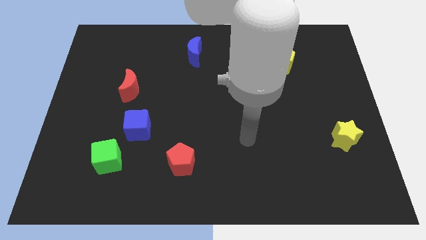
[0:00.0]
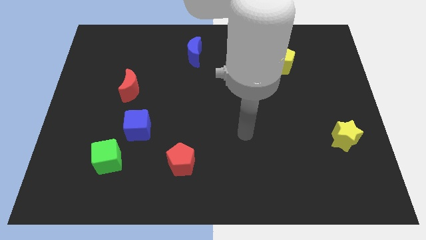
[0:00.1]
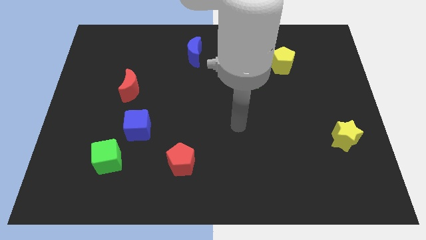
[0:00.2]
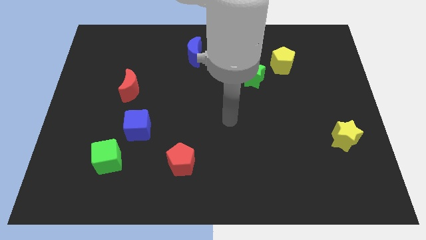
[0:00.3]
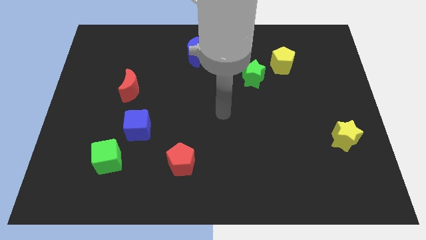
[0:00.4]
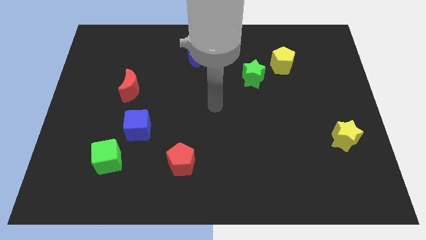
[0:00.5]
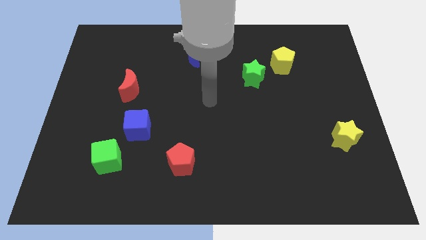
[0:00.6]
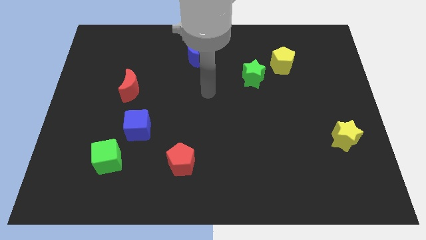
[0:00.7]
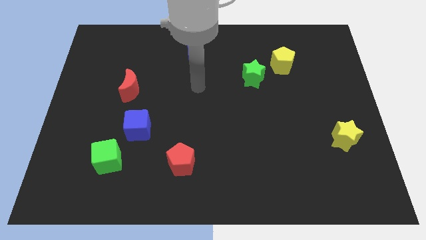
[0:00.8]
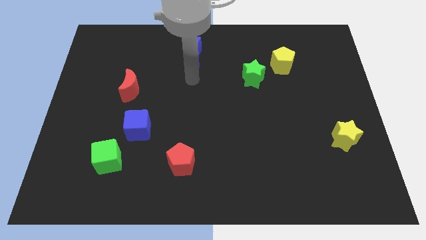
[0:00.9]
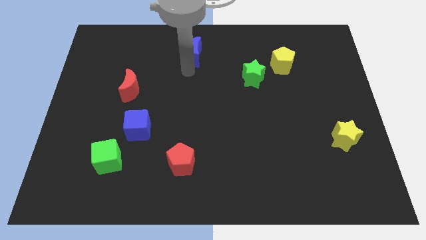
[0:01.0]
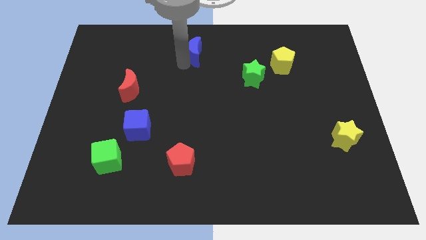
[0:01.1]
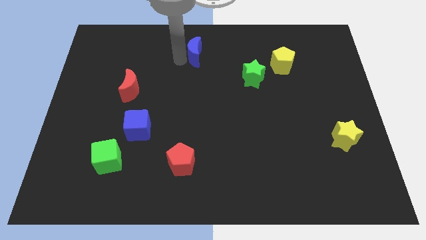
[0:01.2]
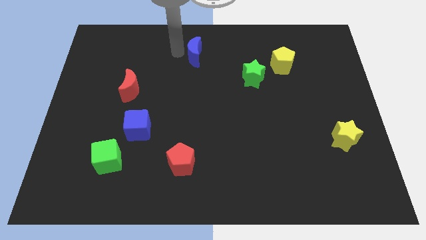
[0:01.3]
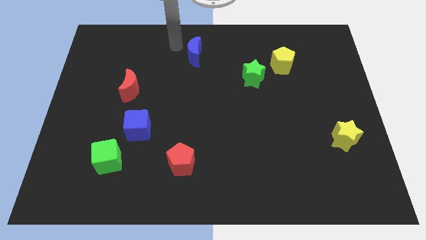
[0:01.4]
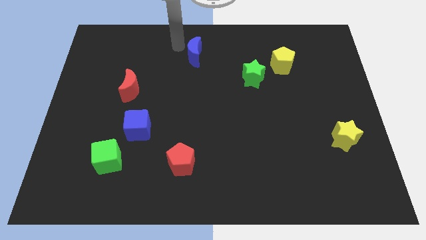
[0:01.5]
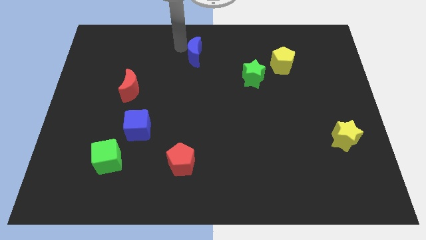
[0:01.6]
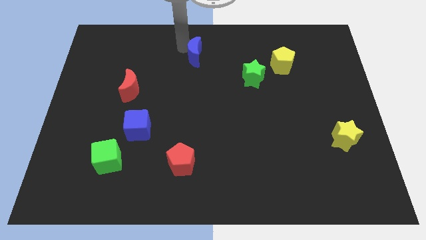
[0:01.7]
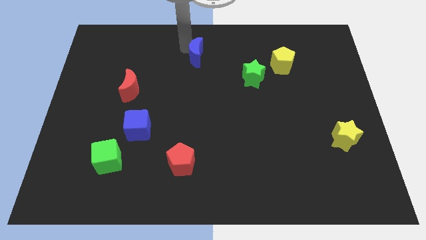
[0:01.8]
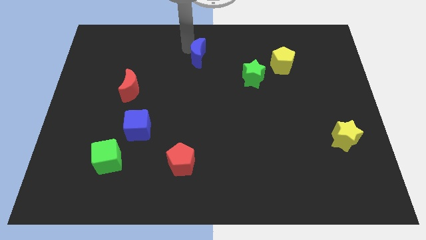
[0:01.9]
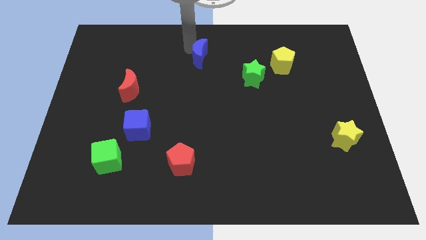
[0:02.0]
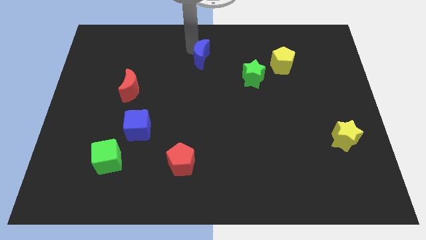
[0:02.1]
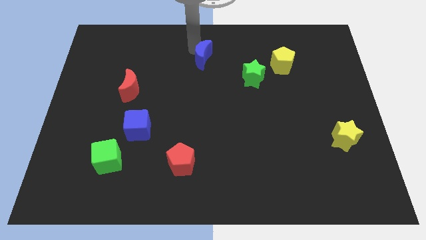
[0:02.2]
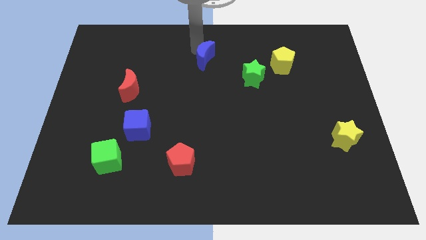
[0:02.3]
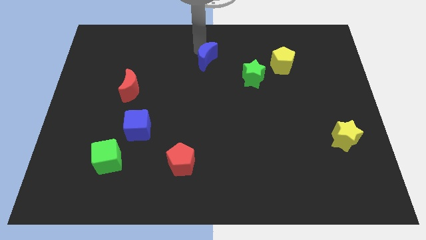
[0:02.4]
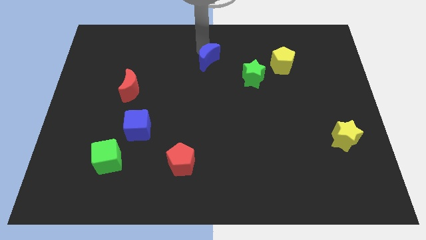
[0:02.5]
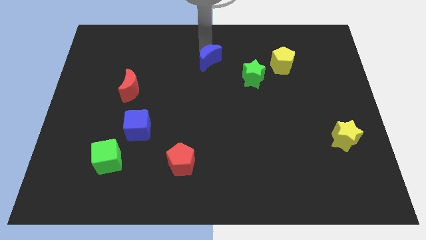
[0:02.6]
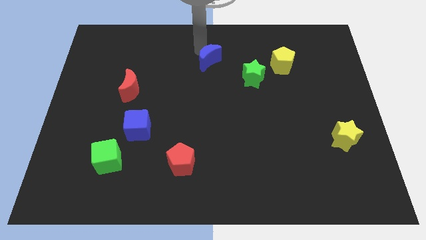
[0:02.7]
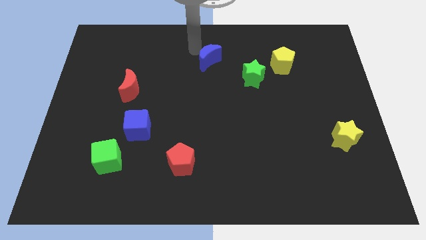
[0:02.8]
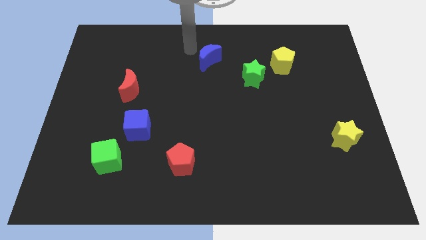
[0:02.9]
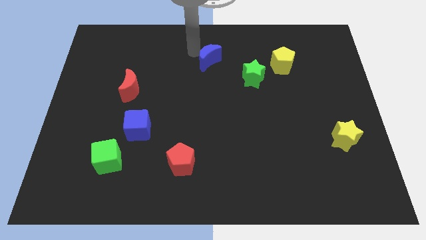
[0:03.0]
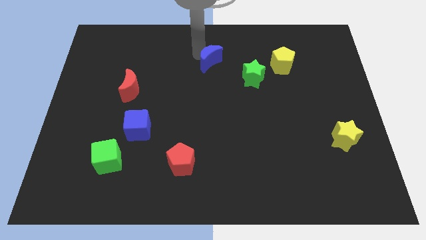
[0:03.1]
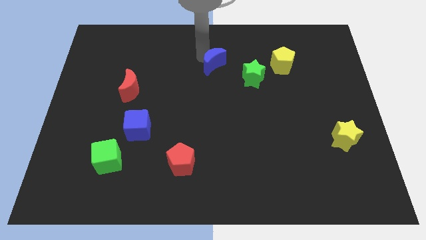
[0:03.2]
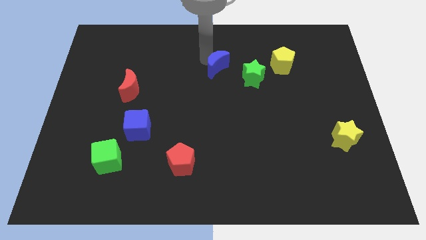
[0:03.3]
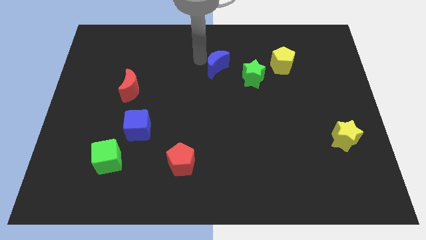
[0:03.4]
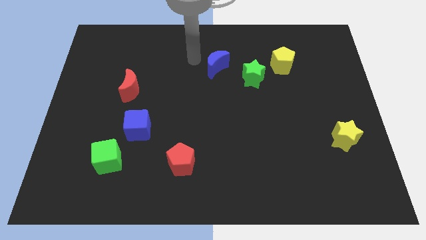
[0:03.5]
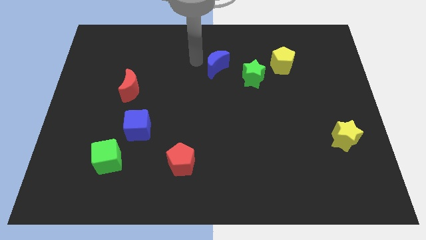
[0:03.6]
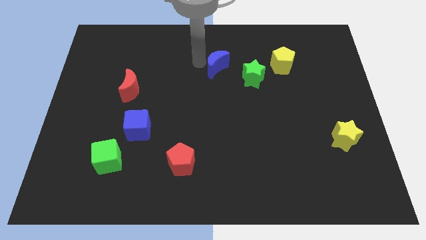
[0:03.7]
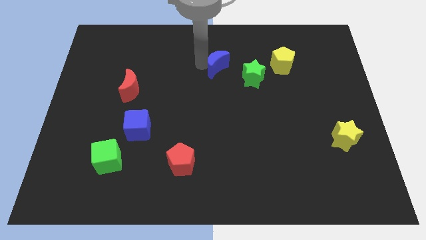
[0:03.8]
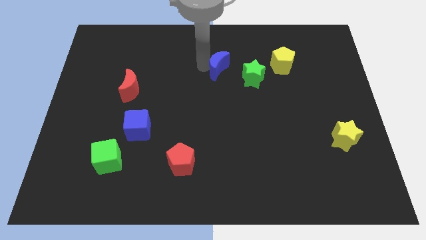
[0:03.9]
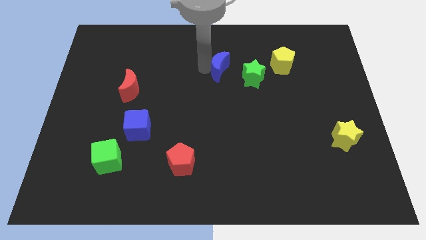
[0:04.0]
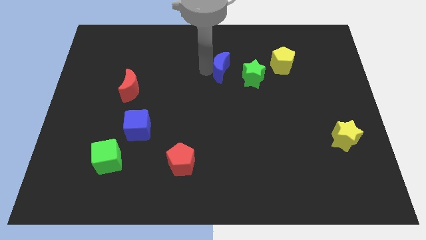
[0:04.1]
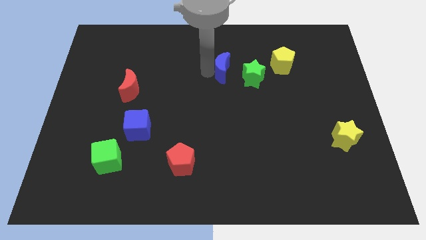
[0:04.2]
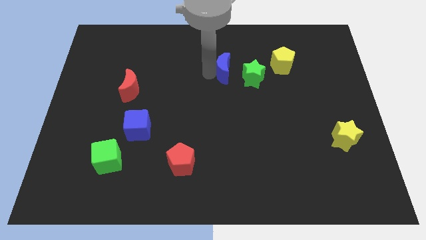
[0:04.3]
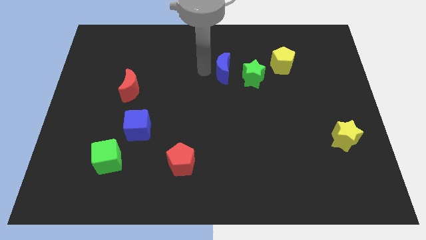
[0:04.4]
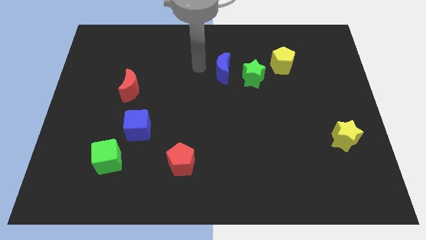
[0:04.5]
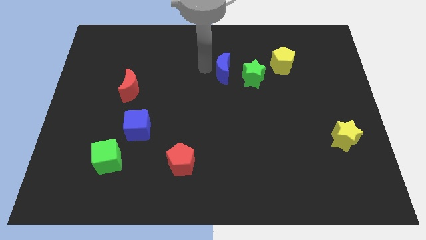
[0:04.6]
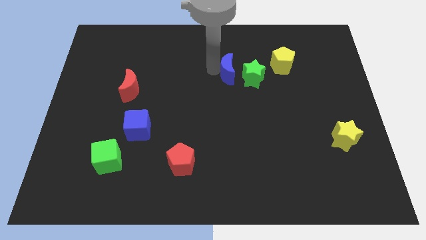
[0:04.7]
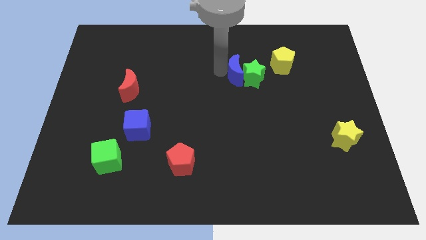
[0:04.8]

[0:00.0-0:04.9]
put the blue moon to the green star

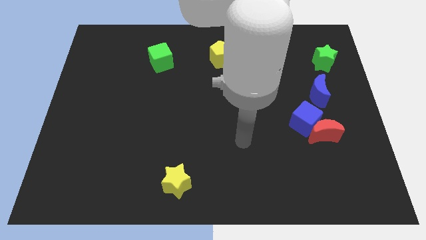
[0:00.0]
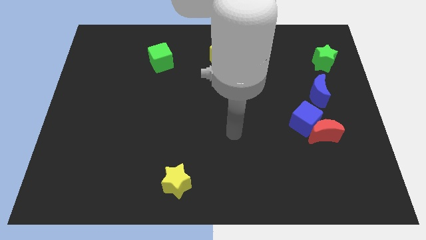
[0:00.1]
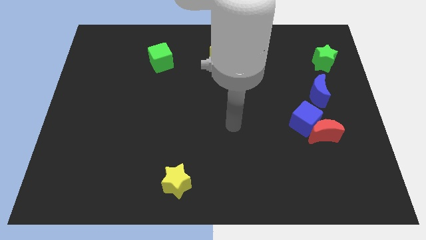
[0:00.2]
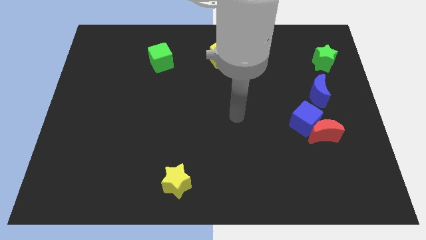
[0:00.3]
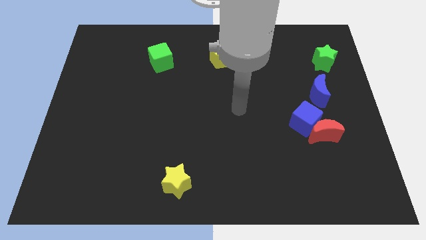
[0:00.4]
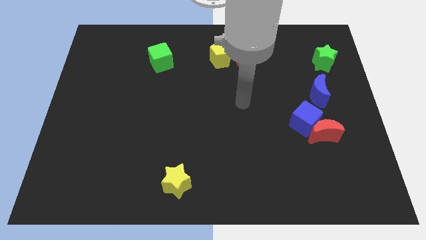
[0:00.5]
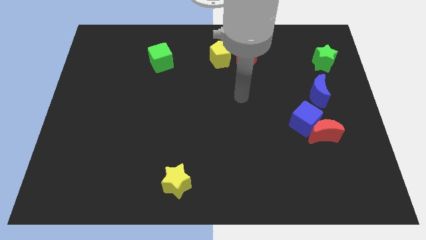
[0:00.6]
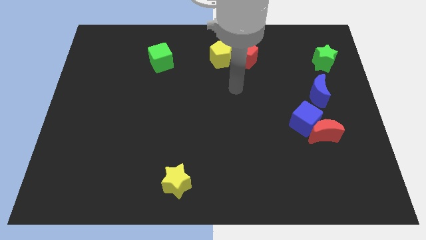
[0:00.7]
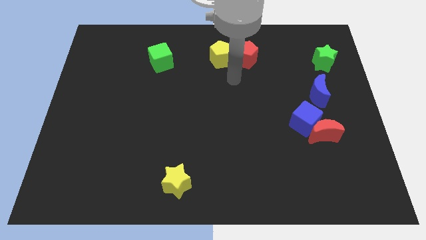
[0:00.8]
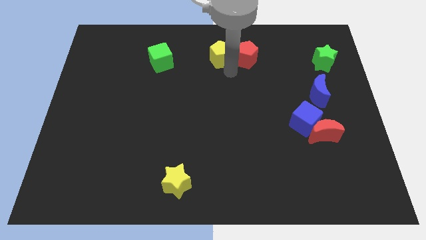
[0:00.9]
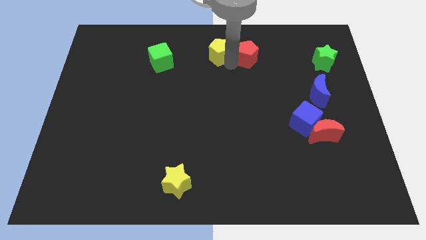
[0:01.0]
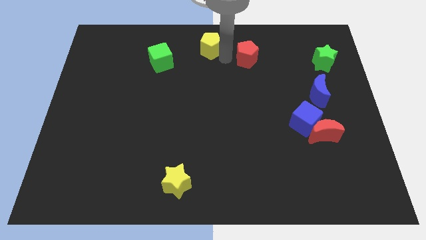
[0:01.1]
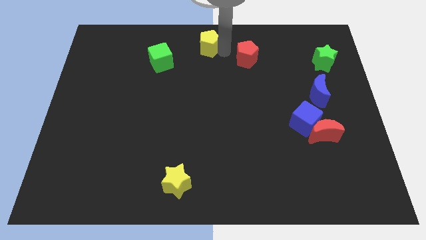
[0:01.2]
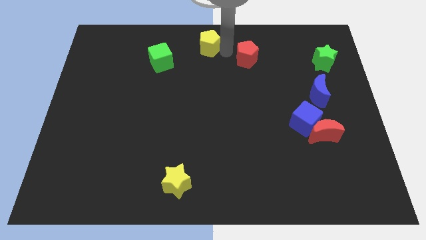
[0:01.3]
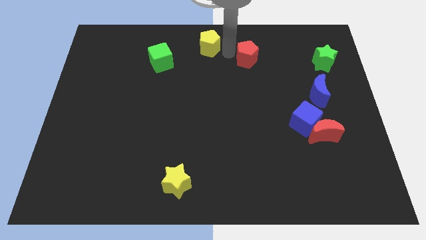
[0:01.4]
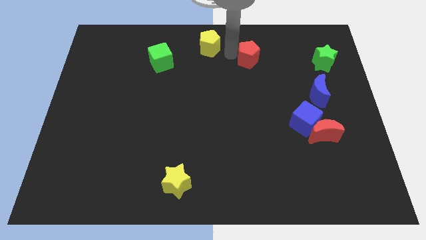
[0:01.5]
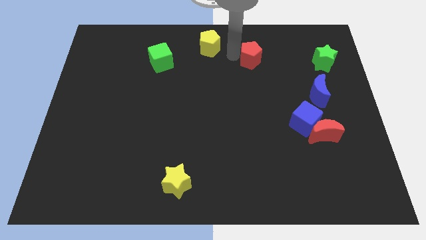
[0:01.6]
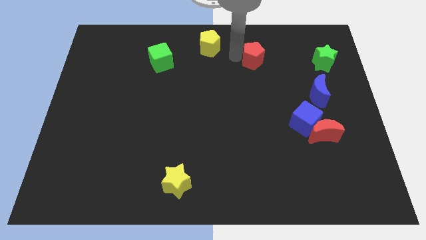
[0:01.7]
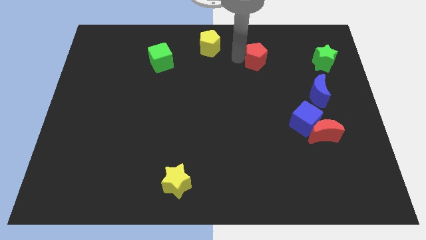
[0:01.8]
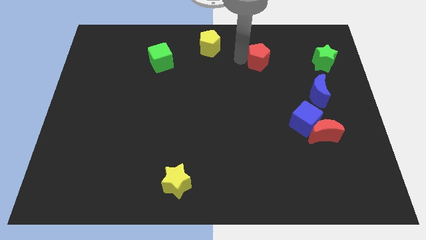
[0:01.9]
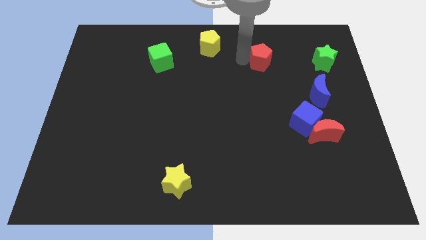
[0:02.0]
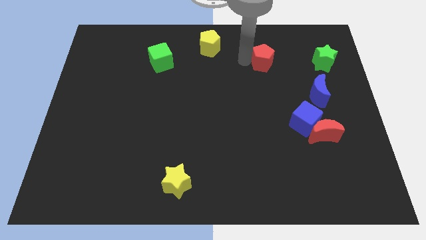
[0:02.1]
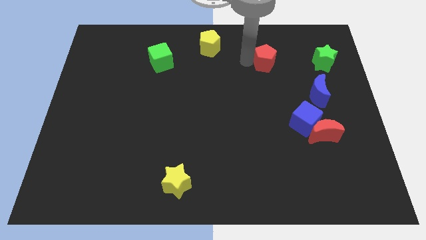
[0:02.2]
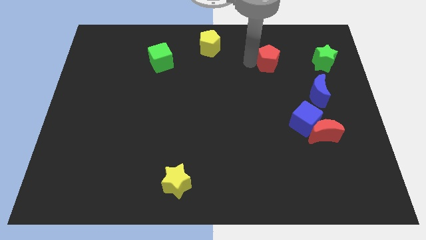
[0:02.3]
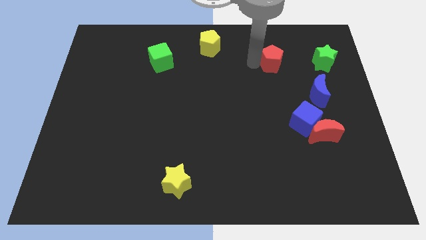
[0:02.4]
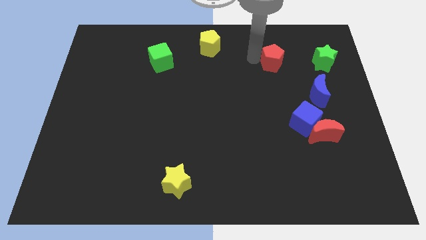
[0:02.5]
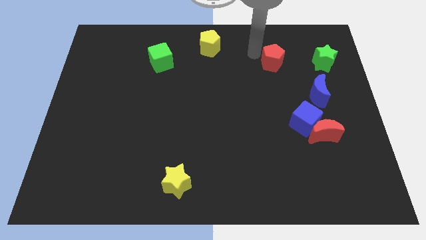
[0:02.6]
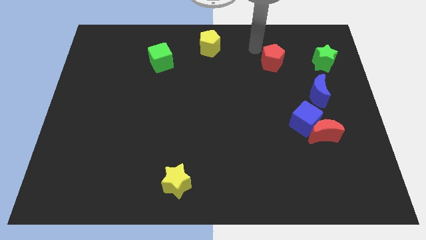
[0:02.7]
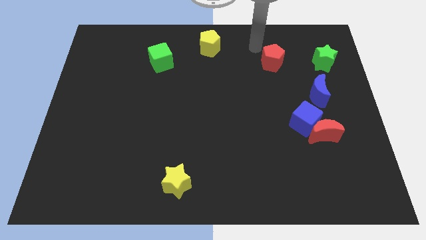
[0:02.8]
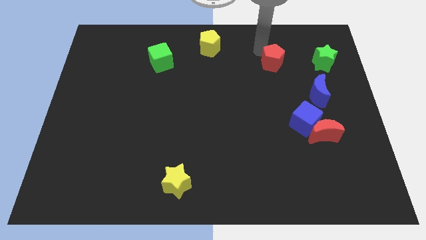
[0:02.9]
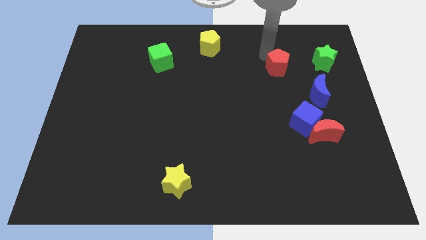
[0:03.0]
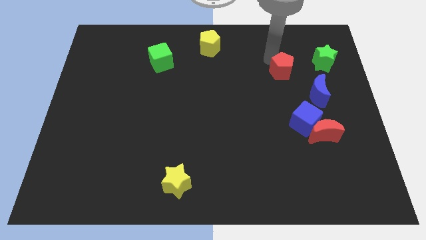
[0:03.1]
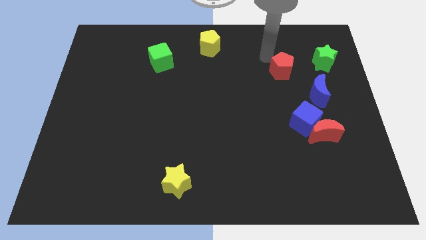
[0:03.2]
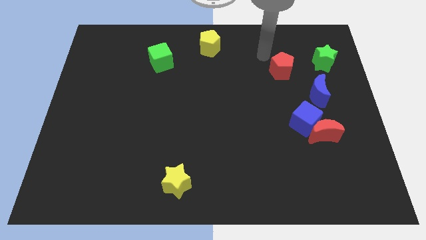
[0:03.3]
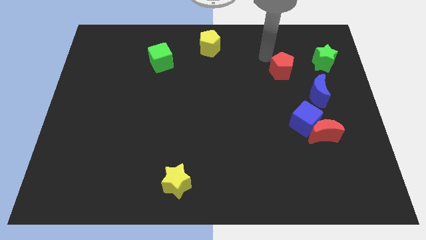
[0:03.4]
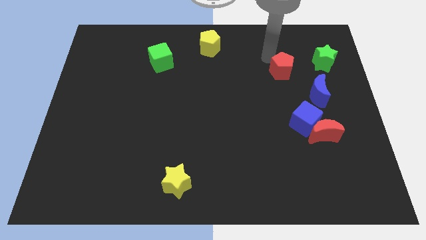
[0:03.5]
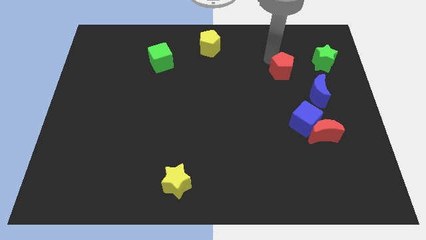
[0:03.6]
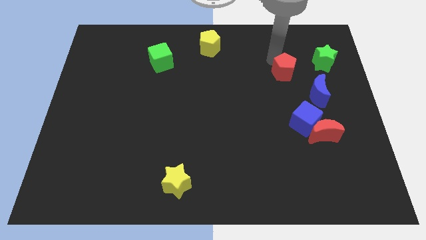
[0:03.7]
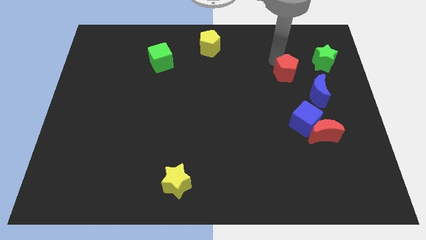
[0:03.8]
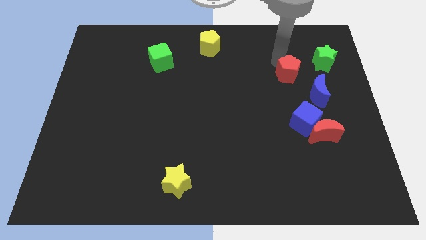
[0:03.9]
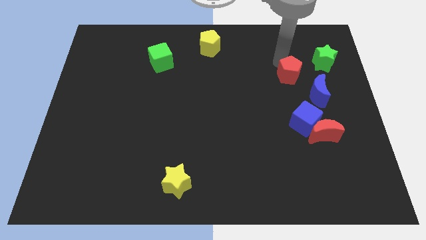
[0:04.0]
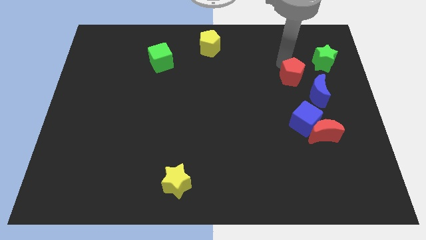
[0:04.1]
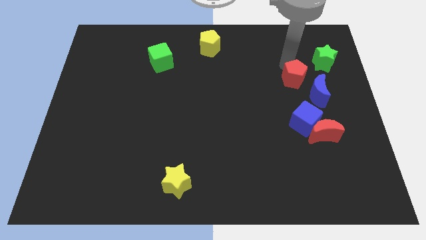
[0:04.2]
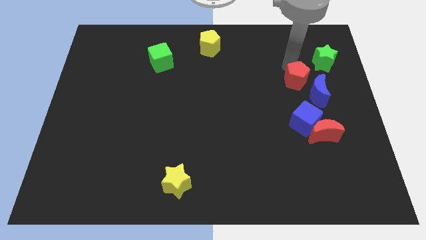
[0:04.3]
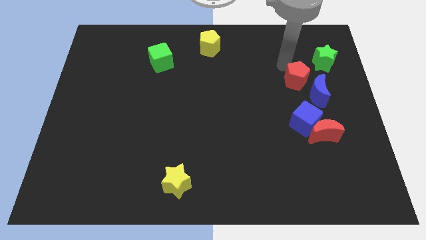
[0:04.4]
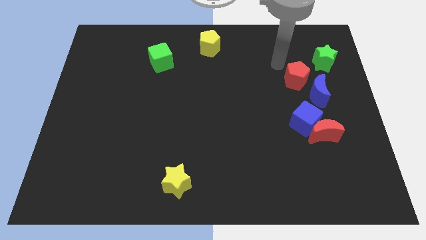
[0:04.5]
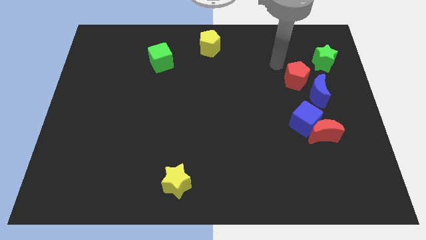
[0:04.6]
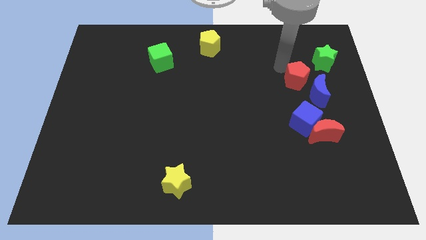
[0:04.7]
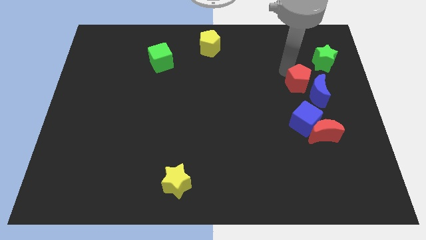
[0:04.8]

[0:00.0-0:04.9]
put the red pentagon to the blue moon
